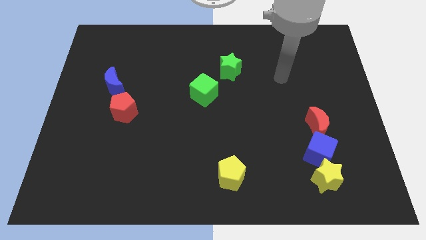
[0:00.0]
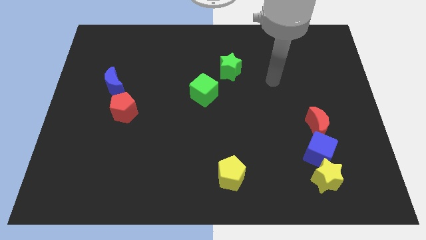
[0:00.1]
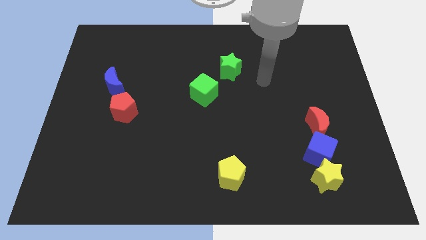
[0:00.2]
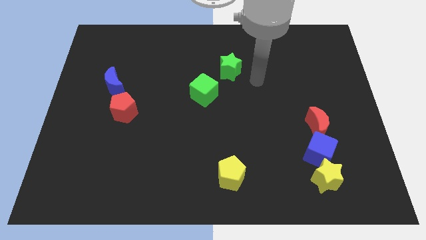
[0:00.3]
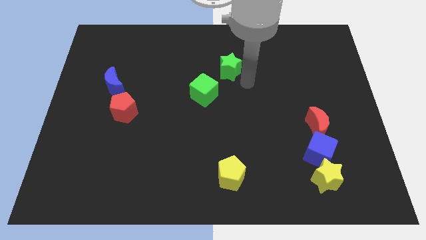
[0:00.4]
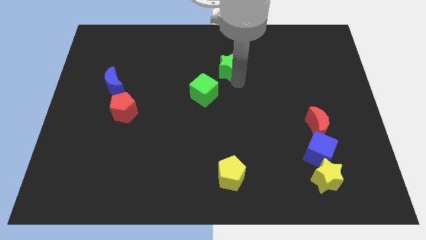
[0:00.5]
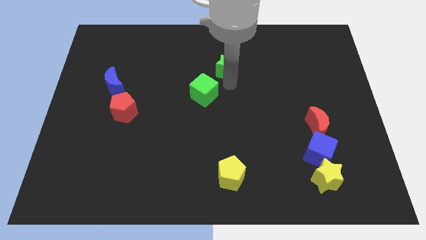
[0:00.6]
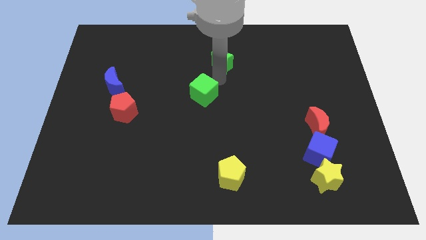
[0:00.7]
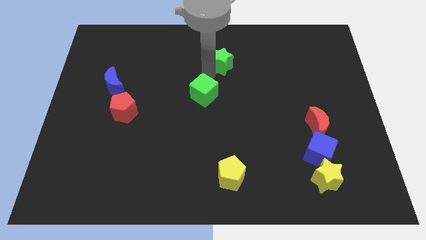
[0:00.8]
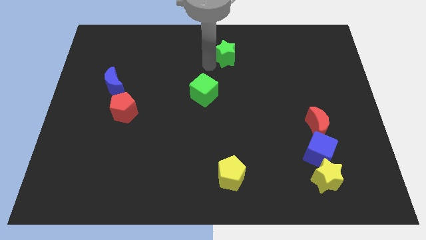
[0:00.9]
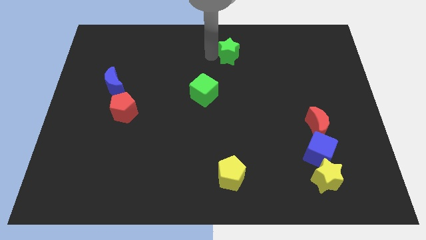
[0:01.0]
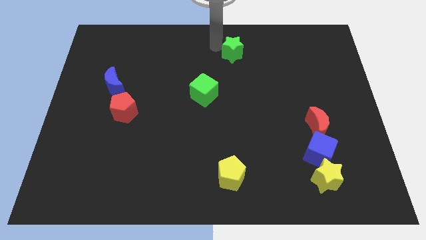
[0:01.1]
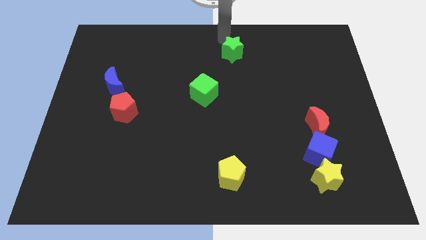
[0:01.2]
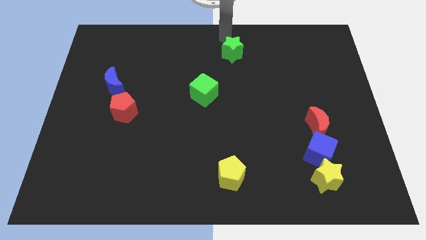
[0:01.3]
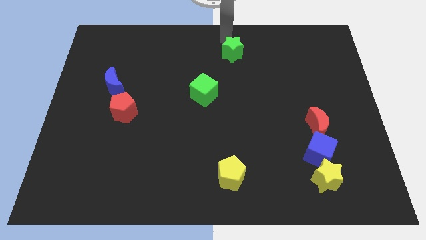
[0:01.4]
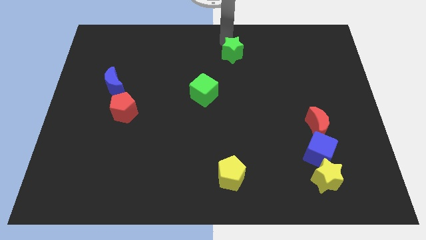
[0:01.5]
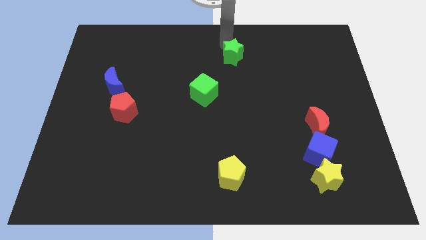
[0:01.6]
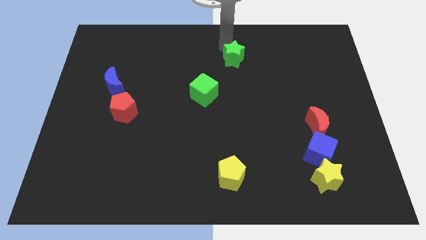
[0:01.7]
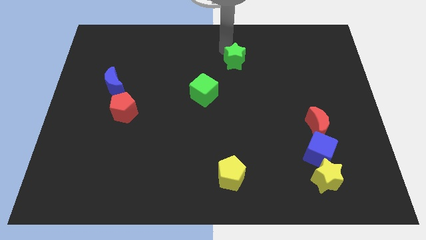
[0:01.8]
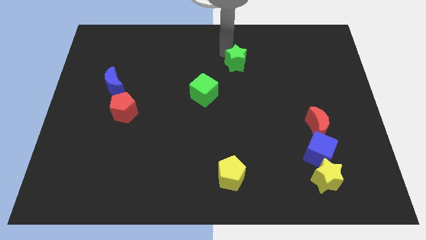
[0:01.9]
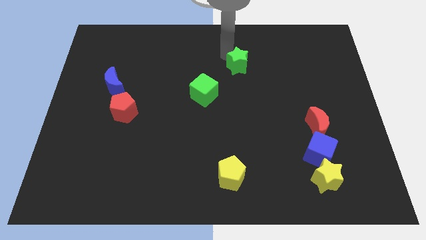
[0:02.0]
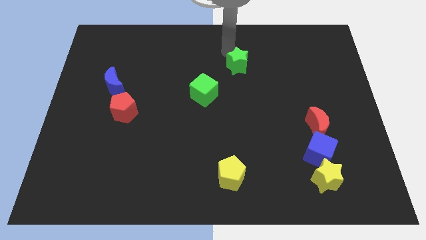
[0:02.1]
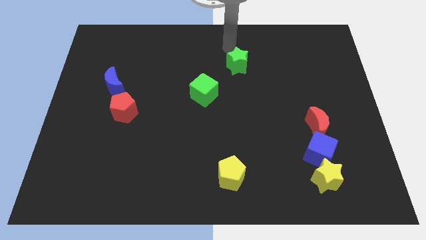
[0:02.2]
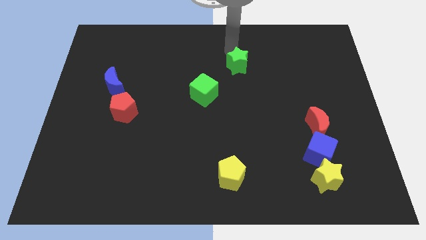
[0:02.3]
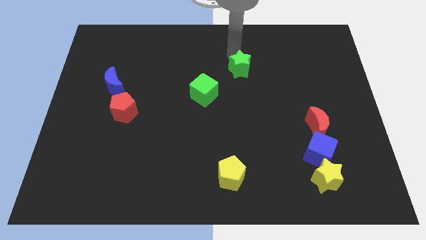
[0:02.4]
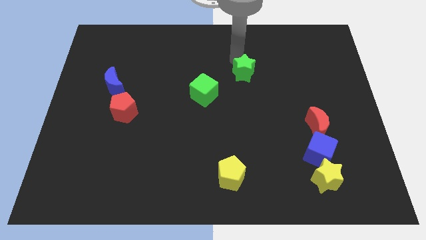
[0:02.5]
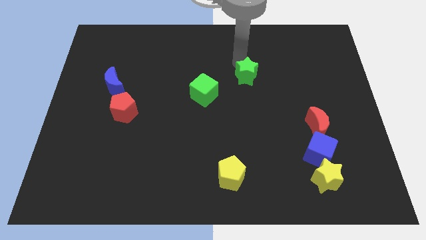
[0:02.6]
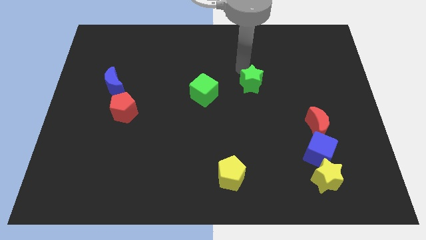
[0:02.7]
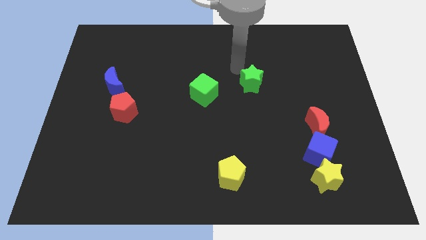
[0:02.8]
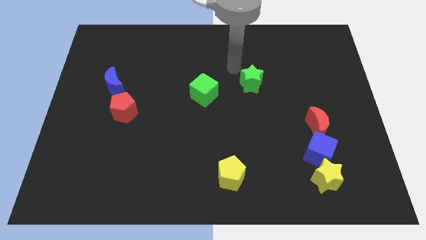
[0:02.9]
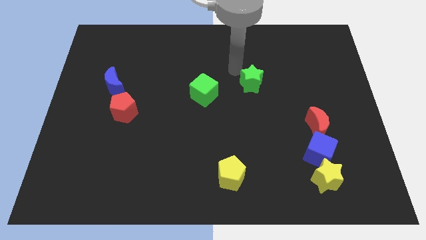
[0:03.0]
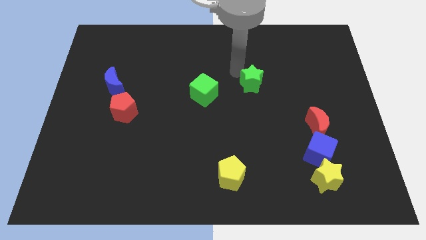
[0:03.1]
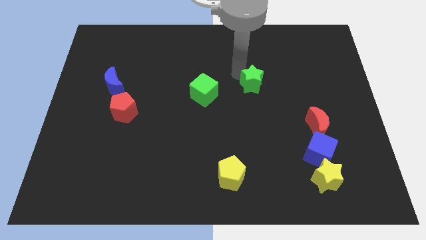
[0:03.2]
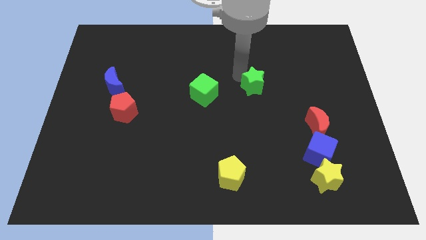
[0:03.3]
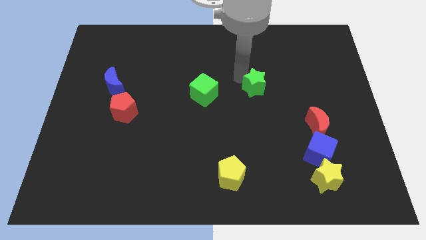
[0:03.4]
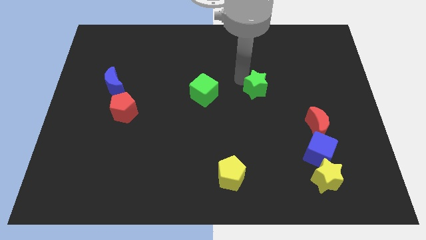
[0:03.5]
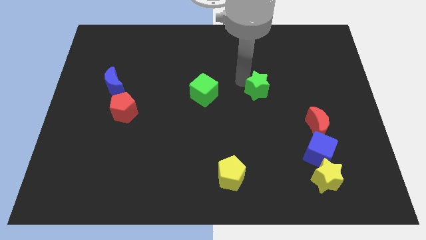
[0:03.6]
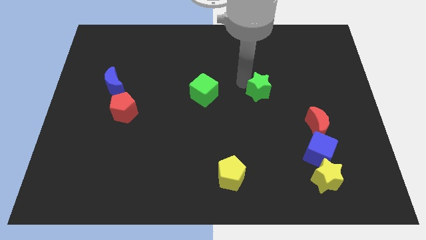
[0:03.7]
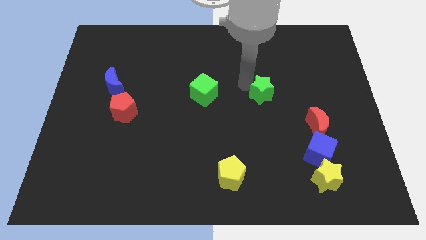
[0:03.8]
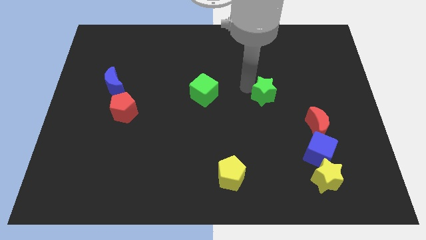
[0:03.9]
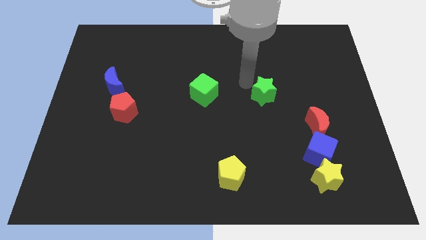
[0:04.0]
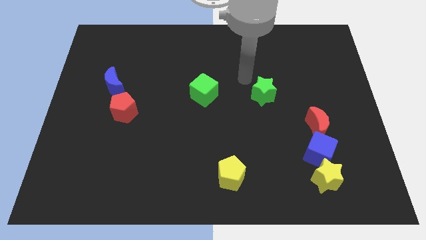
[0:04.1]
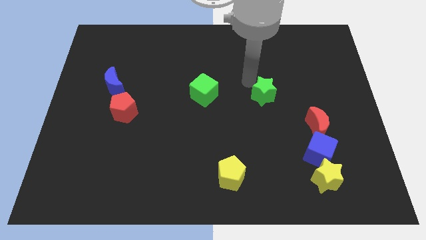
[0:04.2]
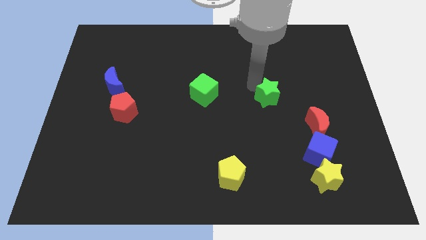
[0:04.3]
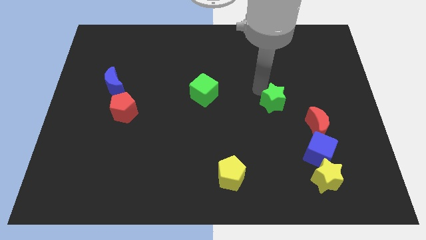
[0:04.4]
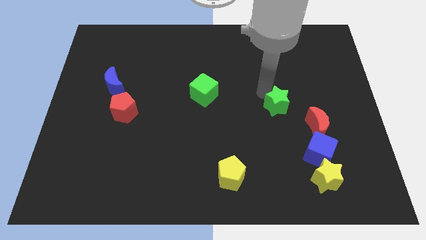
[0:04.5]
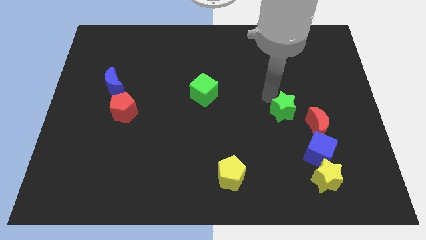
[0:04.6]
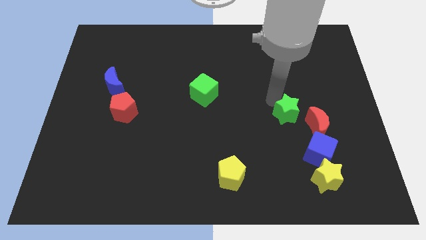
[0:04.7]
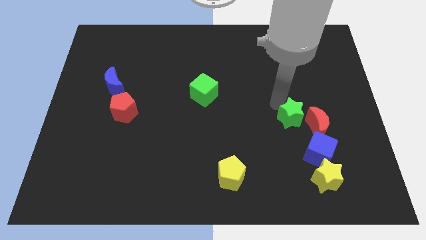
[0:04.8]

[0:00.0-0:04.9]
slide the green star to the red moon

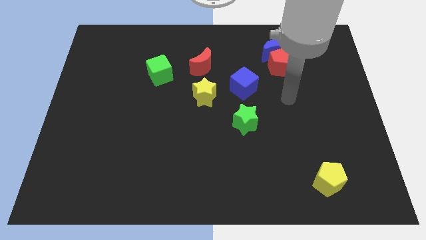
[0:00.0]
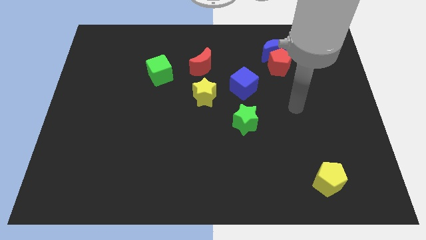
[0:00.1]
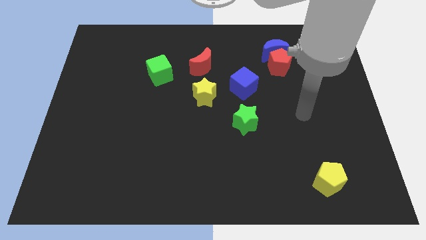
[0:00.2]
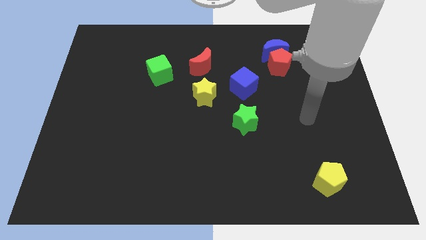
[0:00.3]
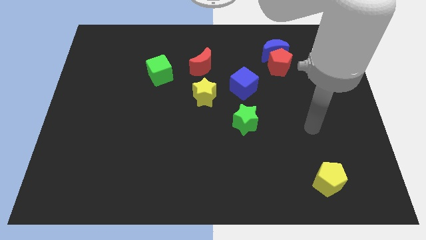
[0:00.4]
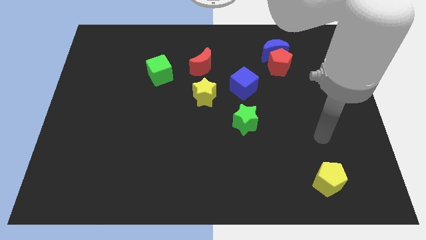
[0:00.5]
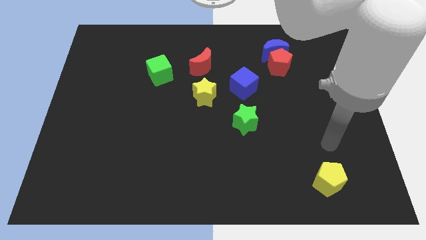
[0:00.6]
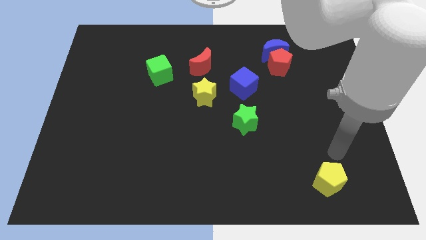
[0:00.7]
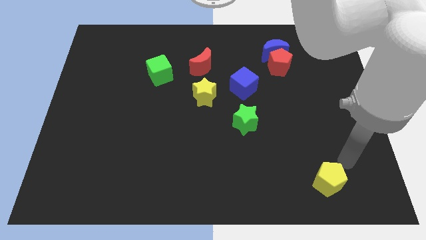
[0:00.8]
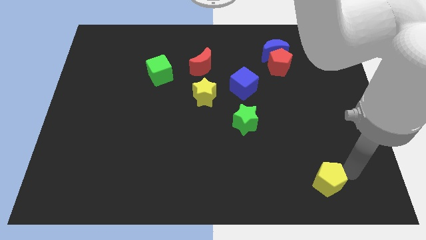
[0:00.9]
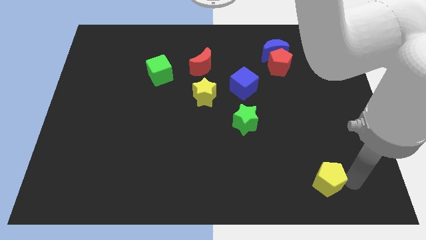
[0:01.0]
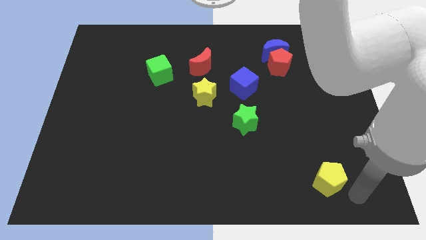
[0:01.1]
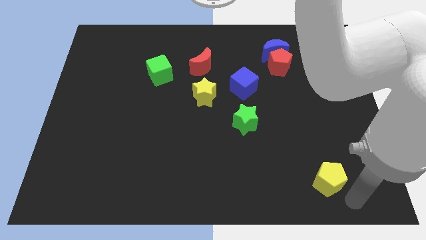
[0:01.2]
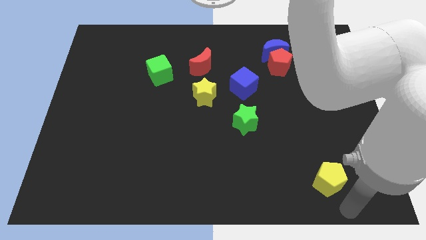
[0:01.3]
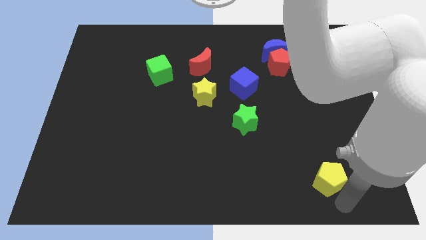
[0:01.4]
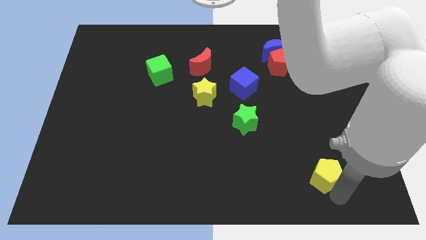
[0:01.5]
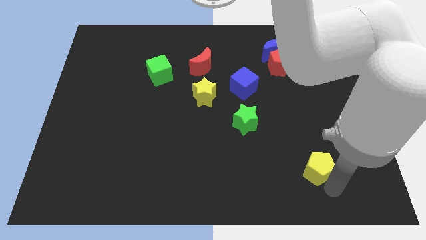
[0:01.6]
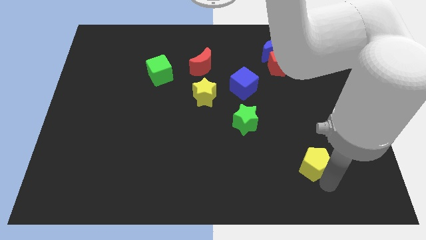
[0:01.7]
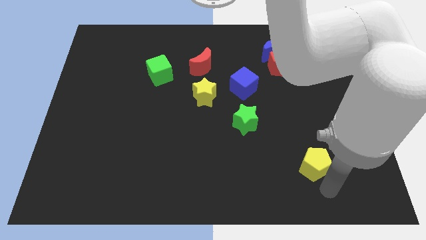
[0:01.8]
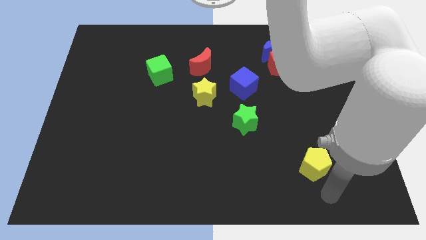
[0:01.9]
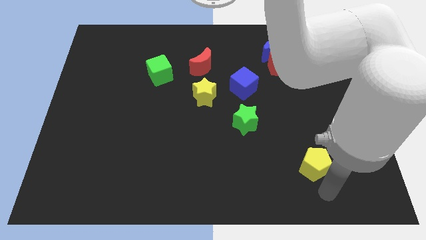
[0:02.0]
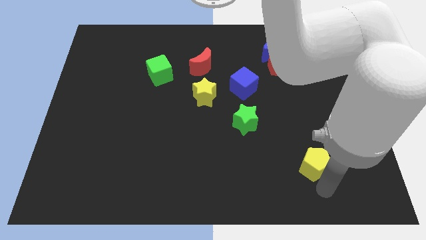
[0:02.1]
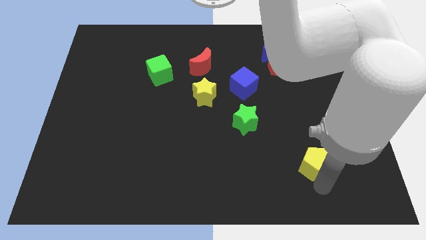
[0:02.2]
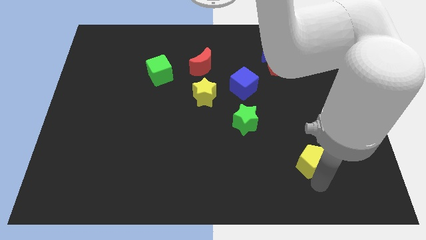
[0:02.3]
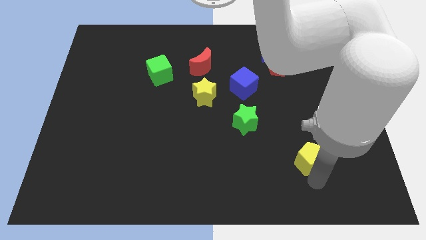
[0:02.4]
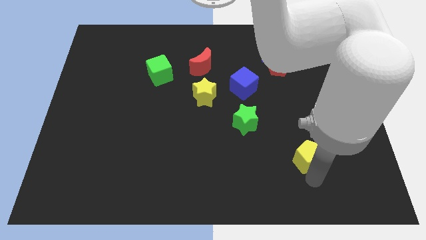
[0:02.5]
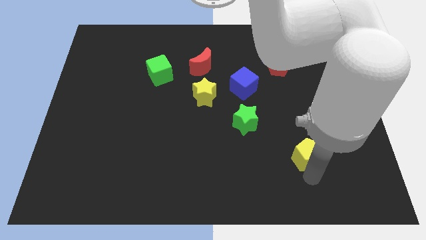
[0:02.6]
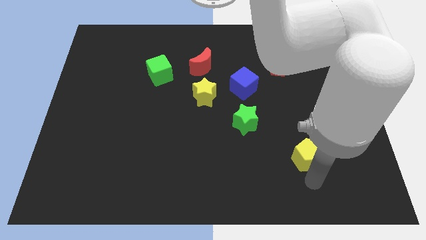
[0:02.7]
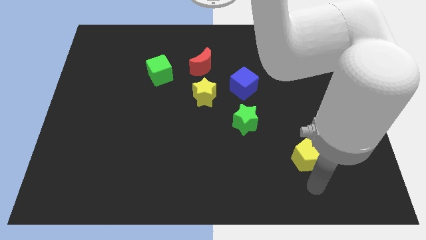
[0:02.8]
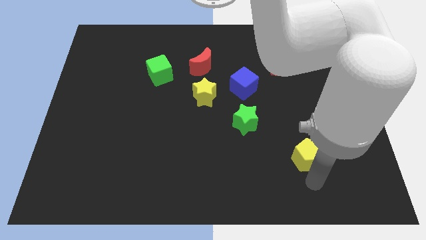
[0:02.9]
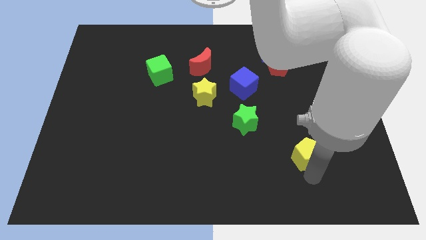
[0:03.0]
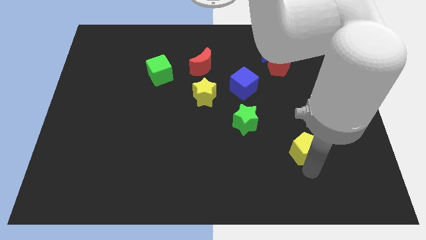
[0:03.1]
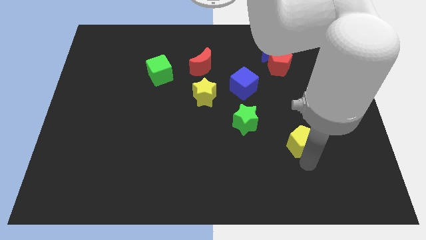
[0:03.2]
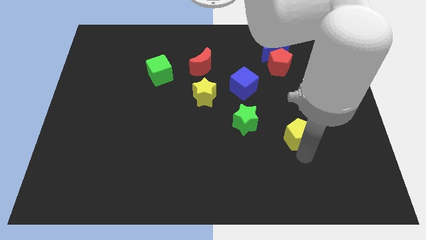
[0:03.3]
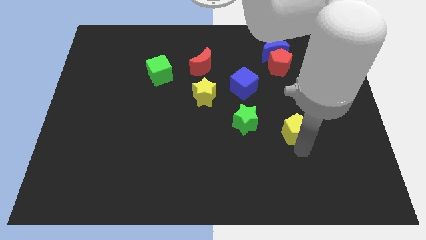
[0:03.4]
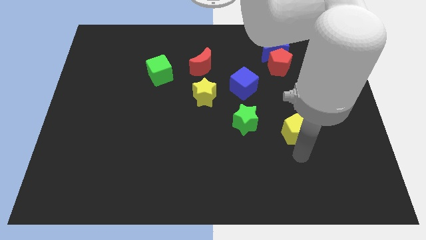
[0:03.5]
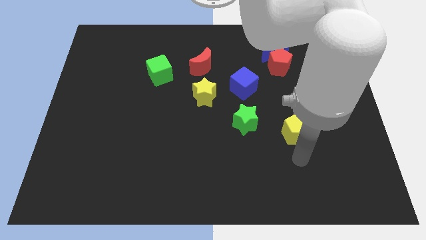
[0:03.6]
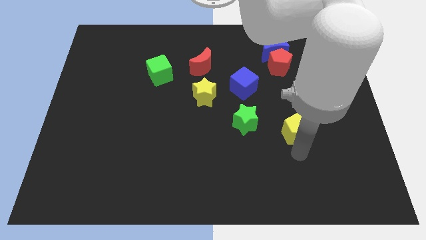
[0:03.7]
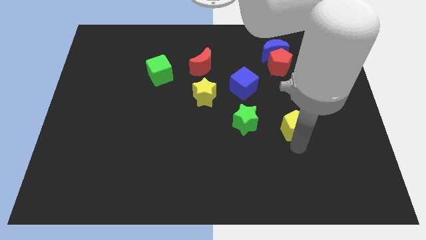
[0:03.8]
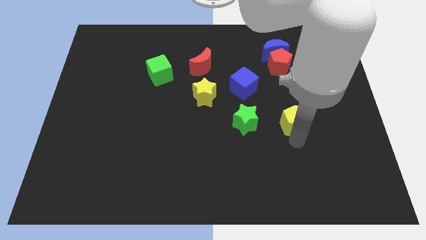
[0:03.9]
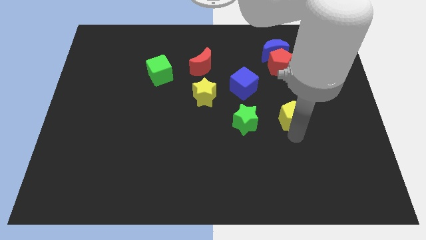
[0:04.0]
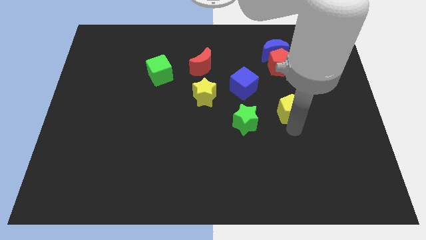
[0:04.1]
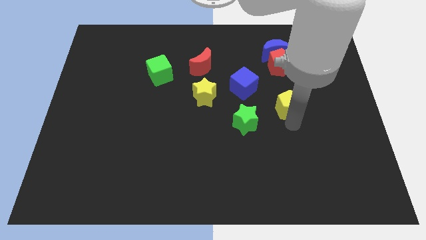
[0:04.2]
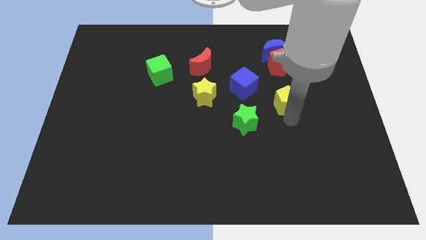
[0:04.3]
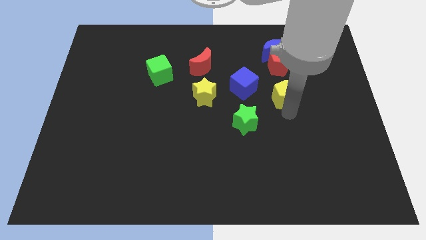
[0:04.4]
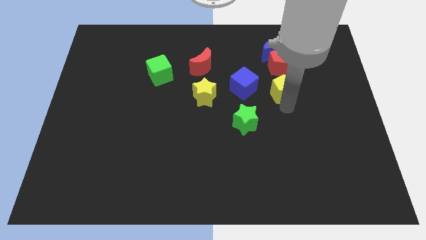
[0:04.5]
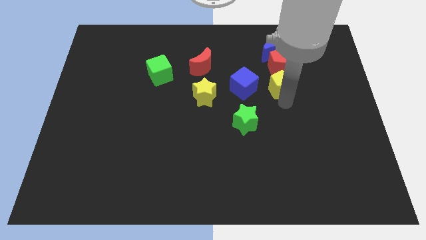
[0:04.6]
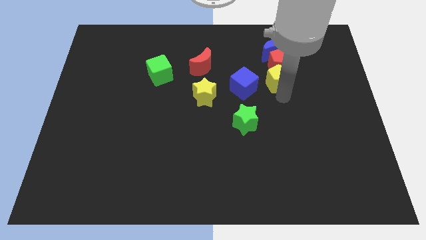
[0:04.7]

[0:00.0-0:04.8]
slide the yellow pentagon to the red pentagon
